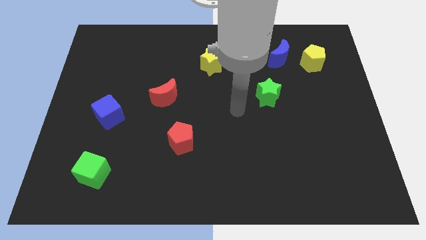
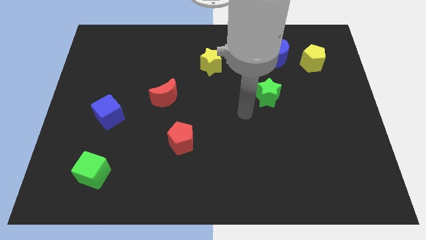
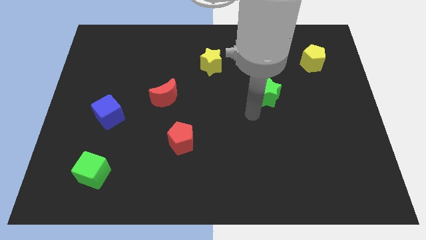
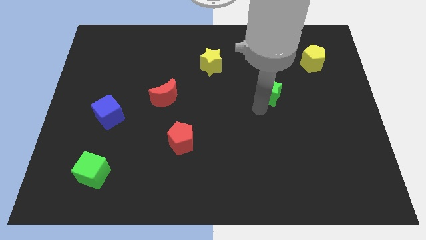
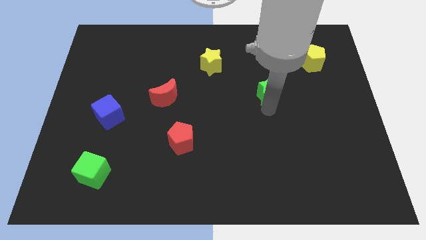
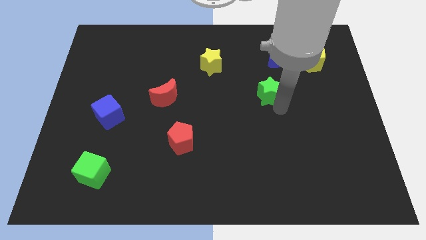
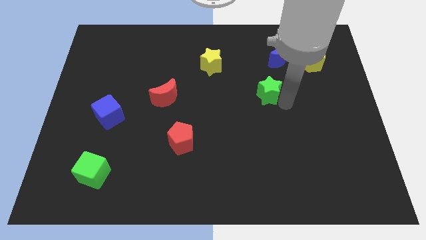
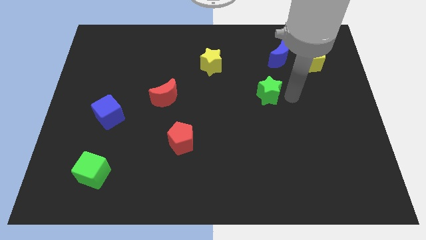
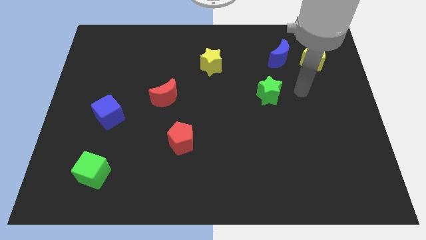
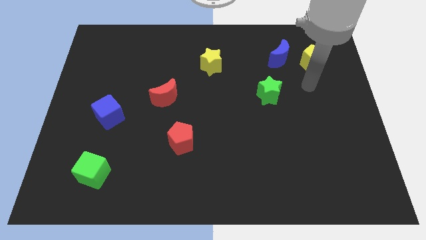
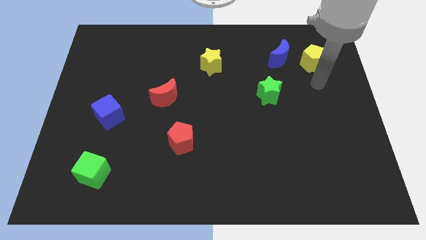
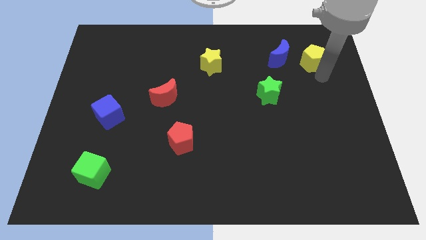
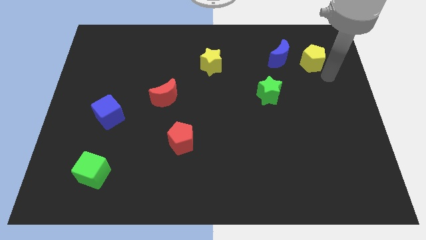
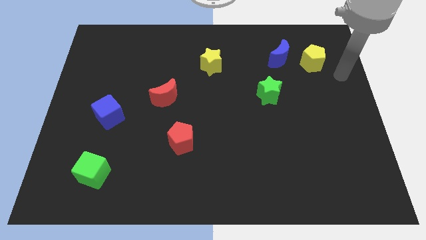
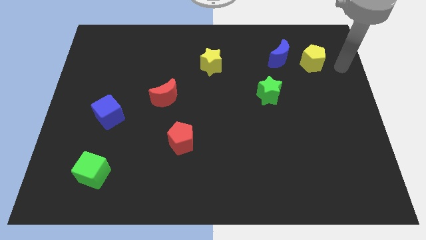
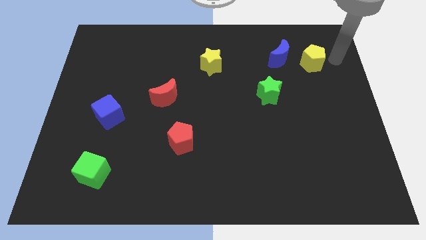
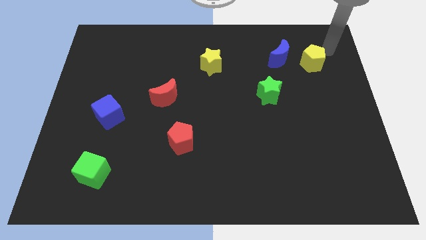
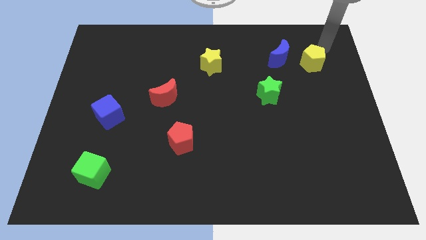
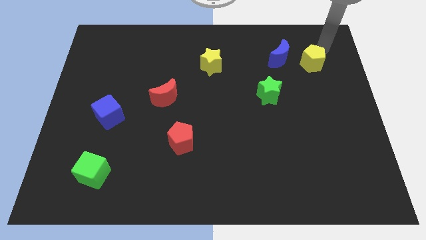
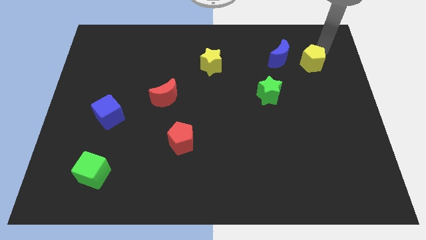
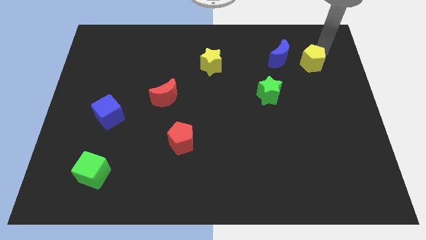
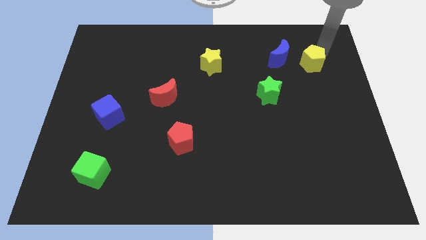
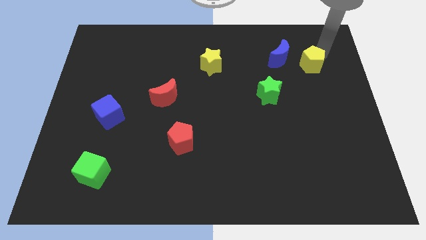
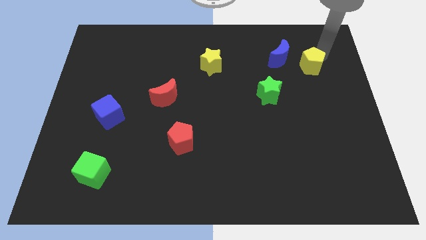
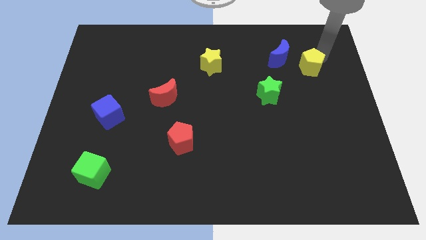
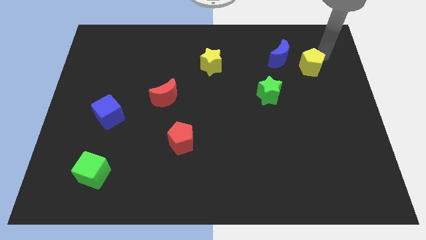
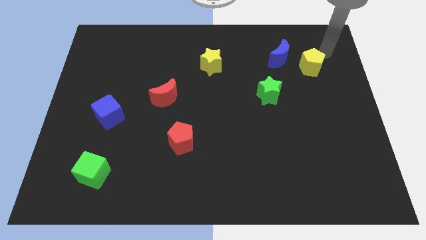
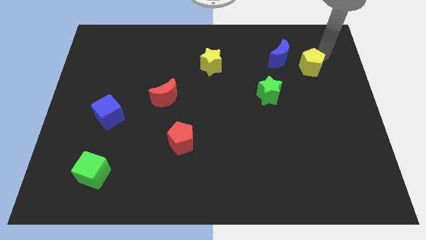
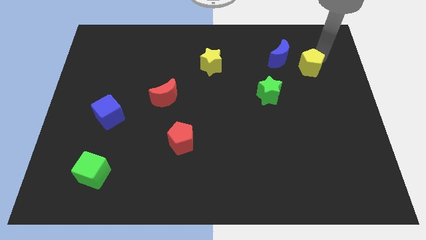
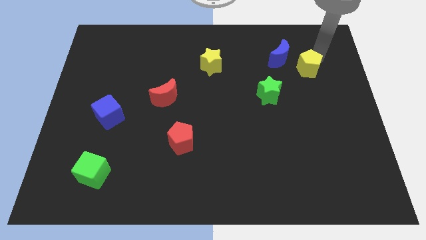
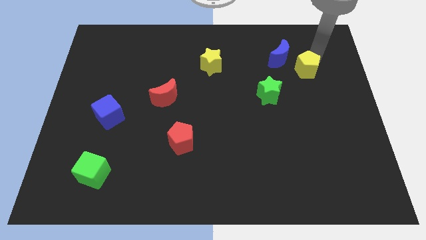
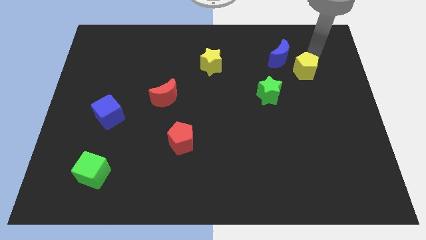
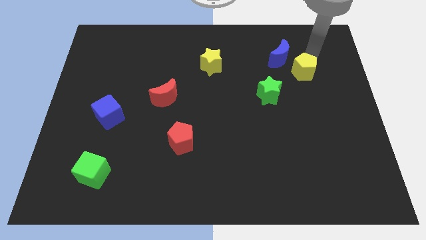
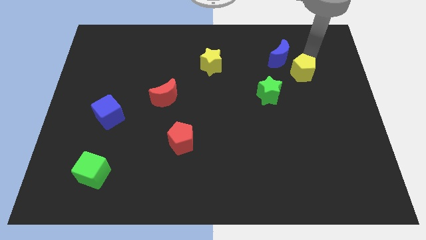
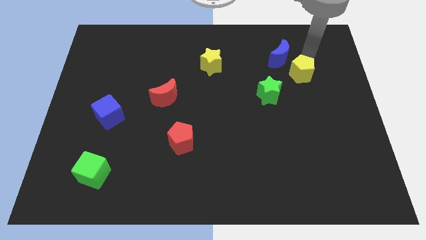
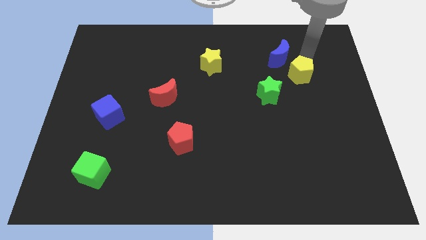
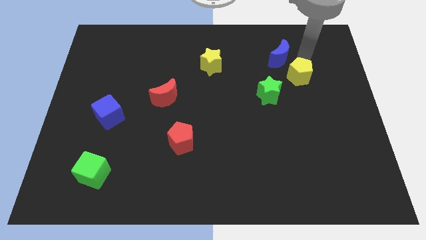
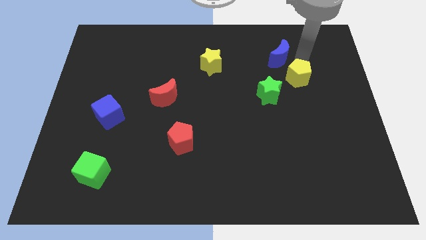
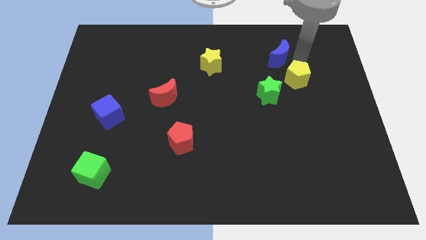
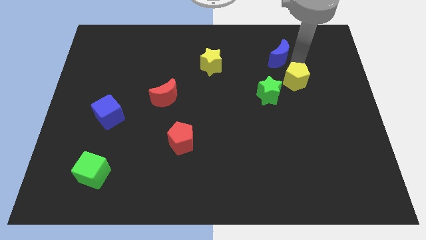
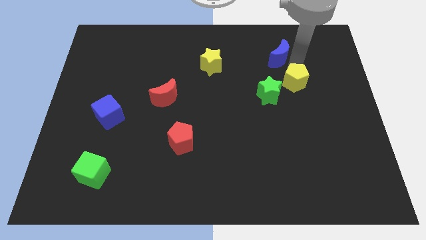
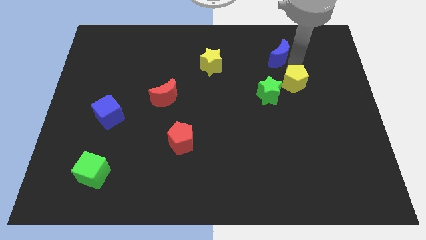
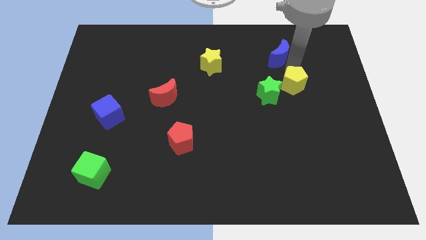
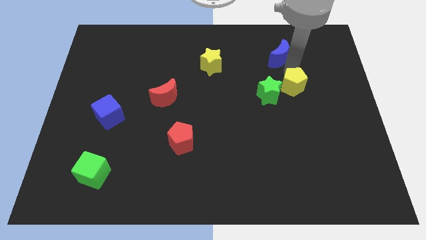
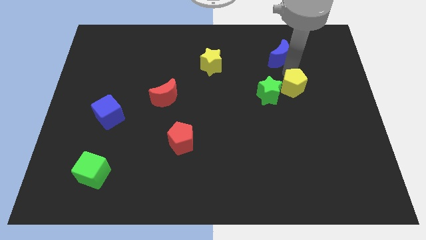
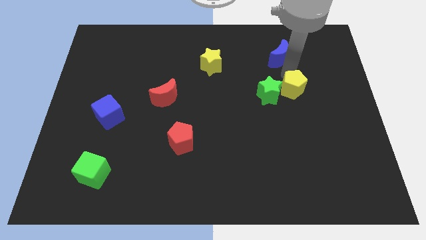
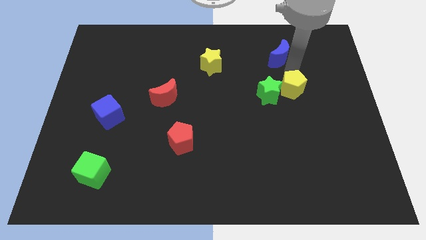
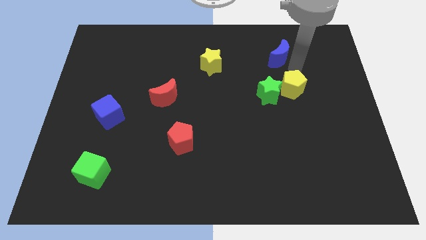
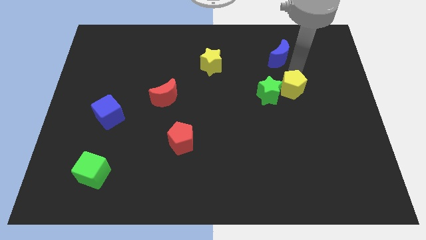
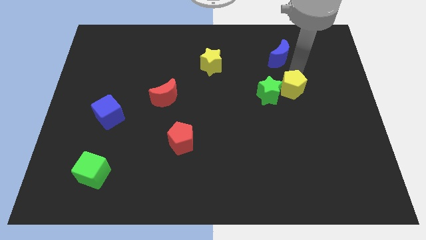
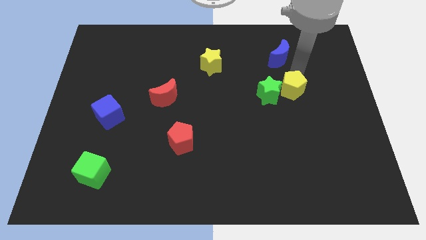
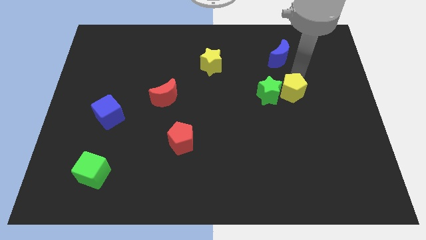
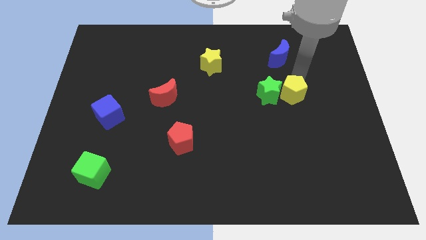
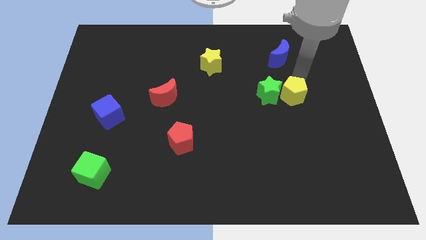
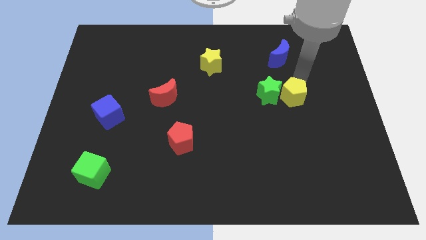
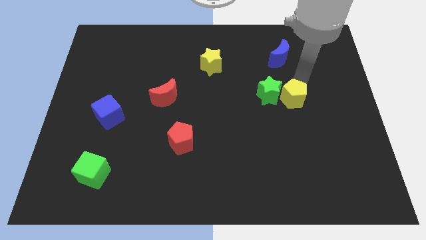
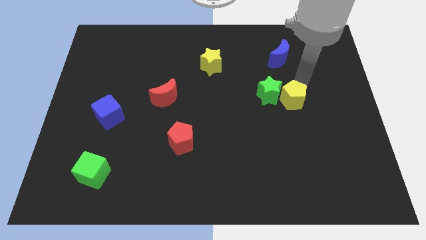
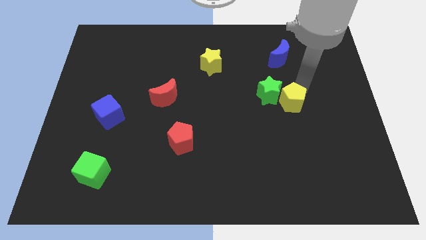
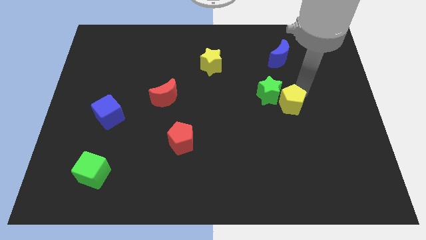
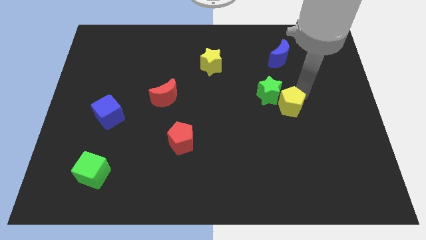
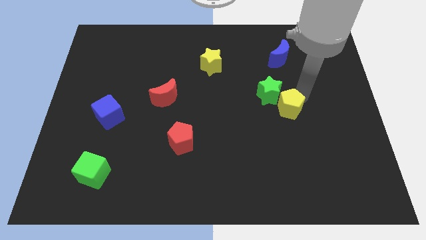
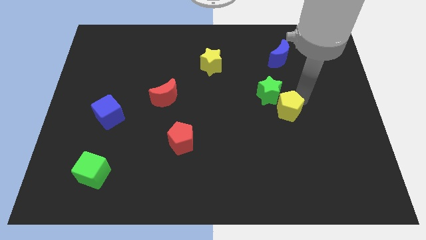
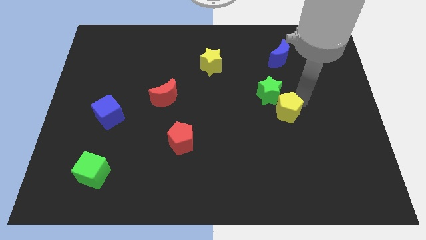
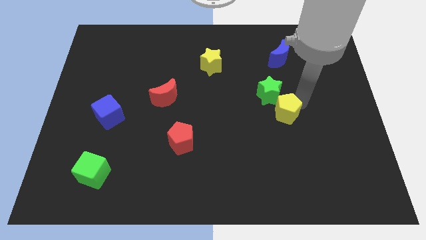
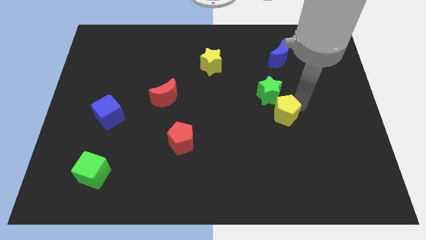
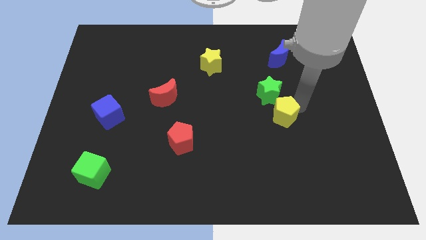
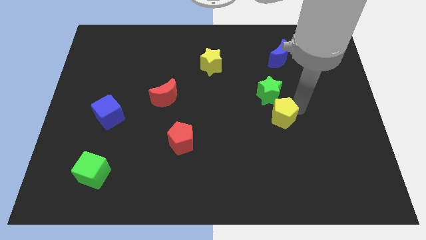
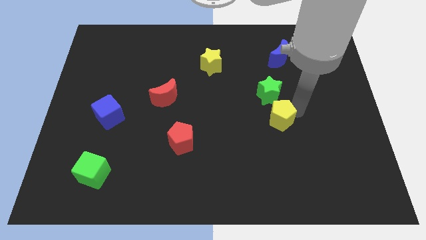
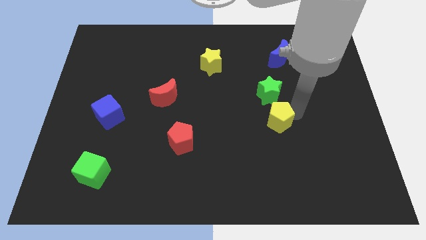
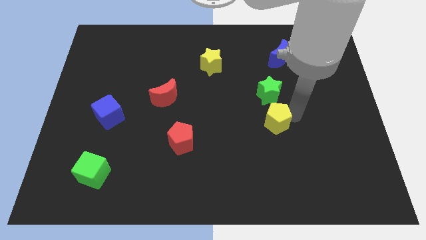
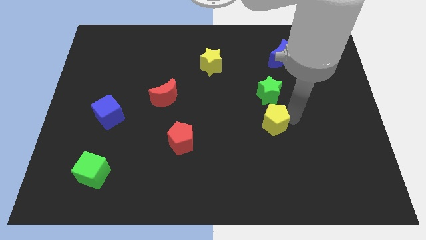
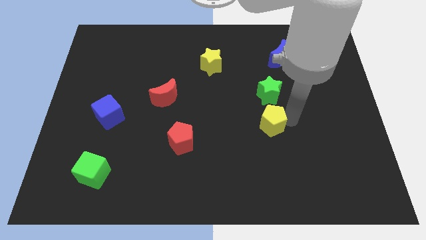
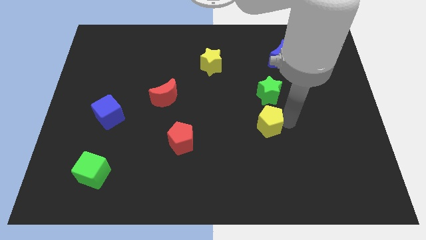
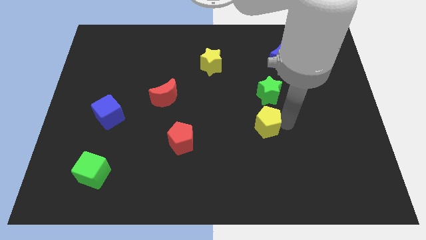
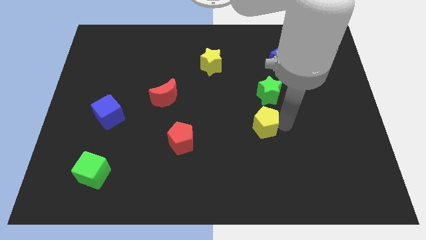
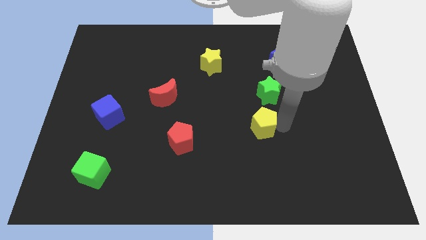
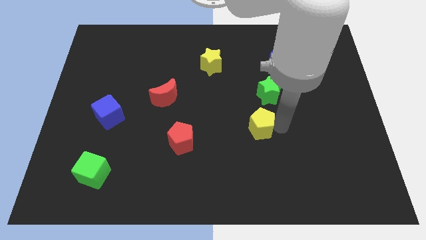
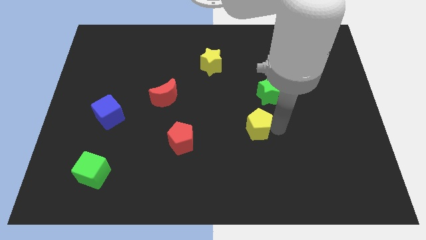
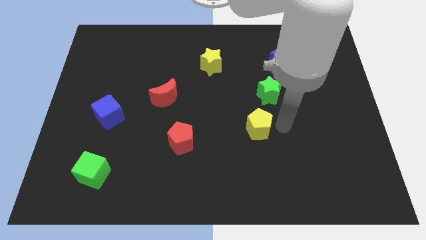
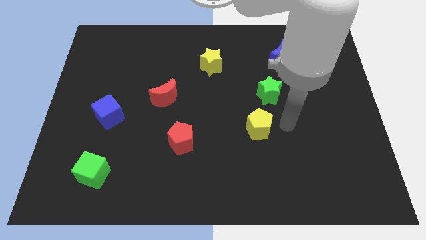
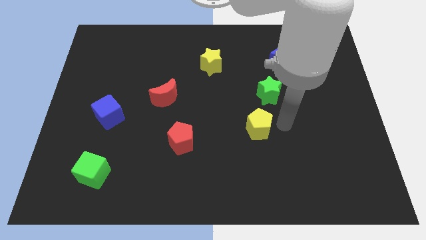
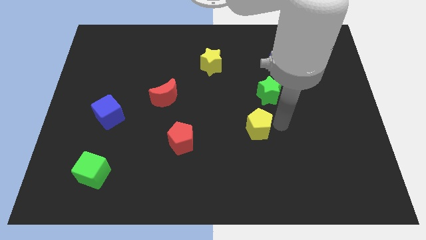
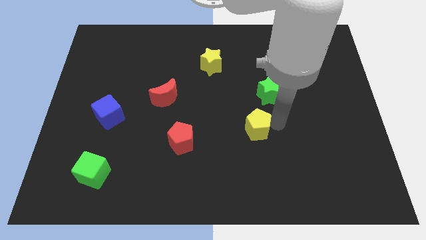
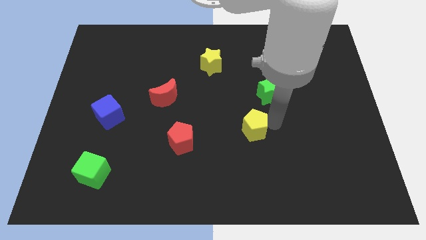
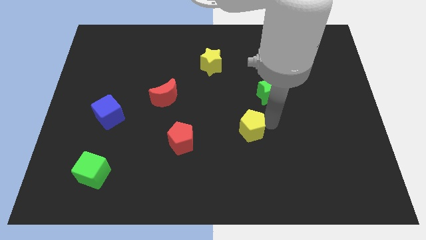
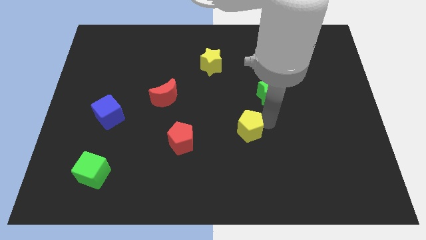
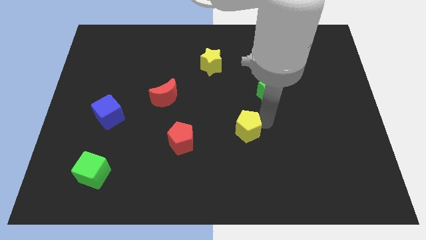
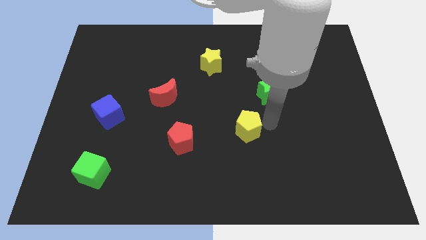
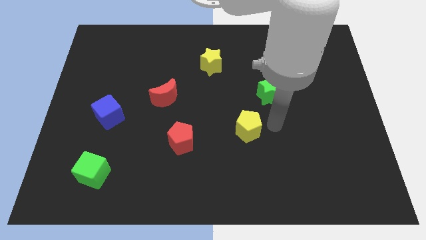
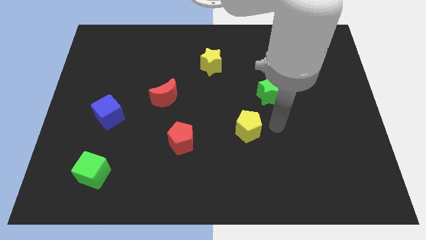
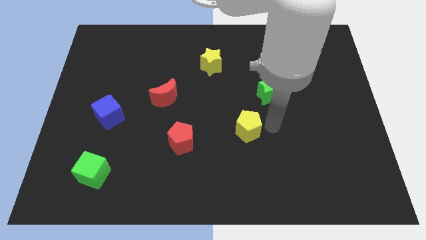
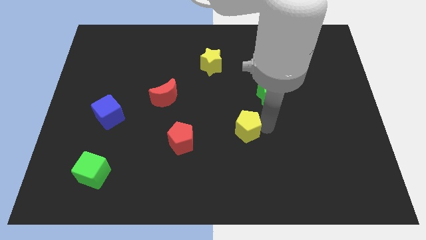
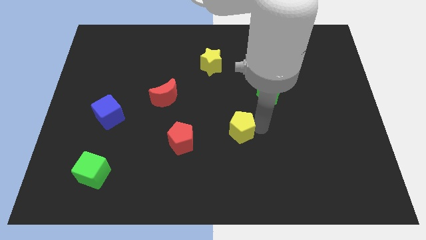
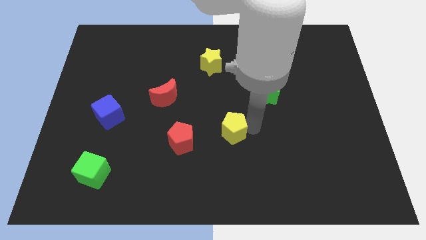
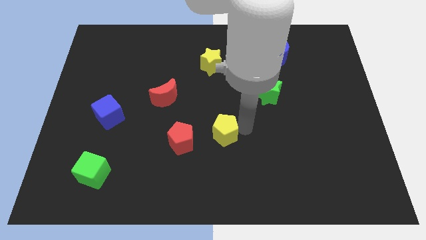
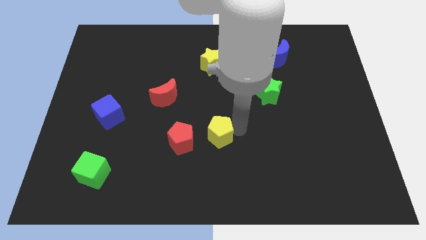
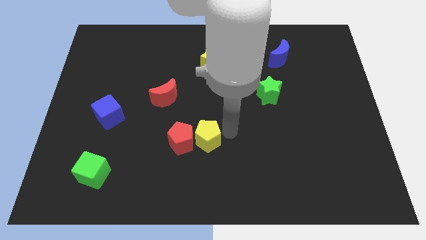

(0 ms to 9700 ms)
move the yellow pentagon close to the red pentagon
